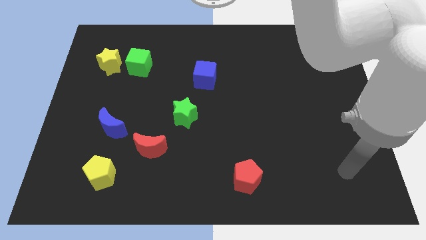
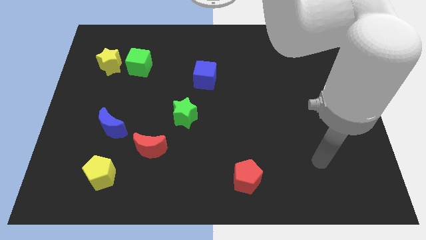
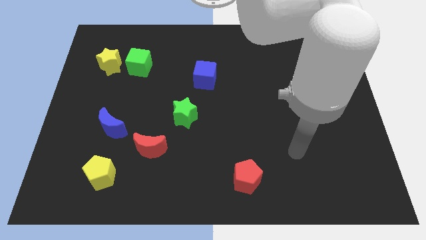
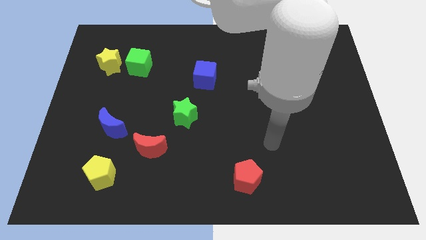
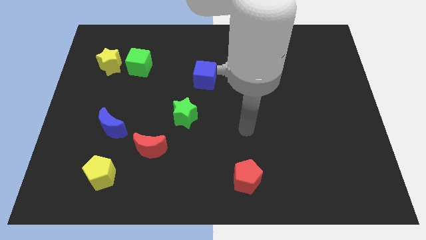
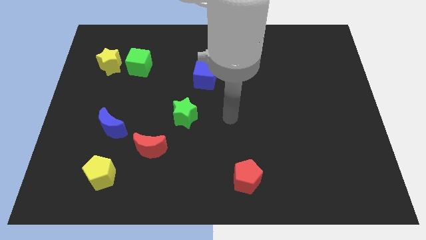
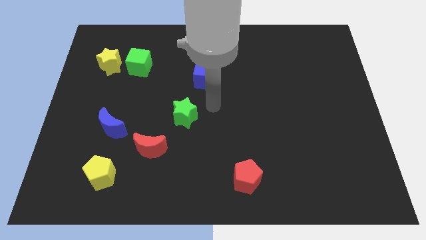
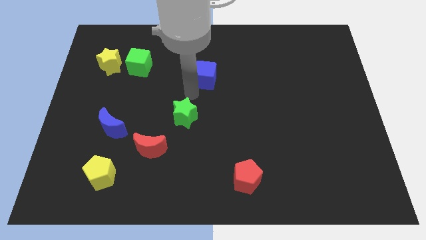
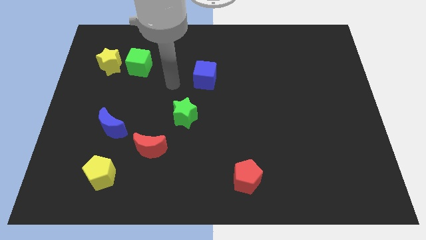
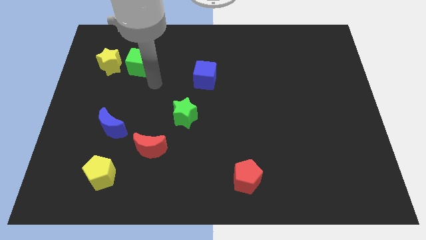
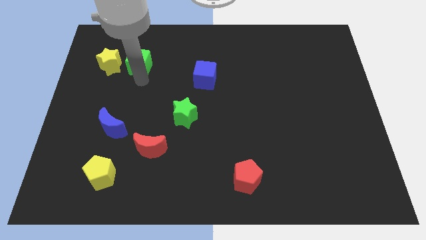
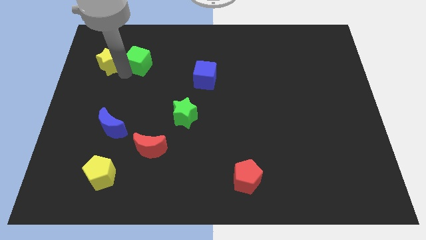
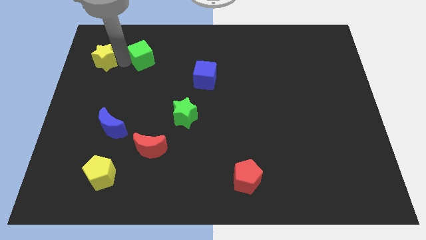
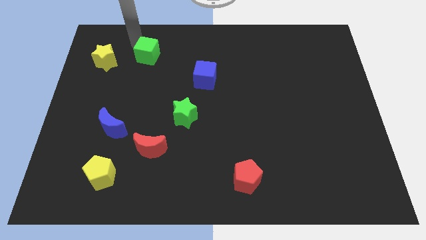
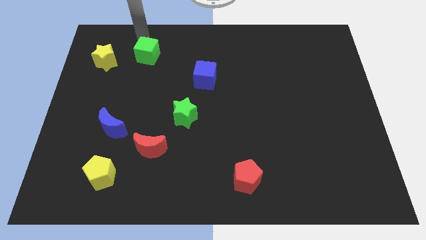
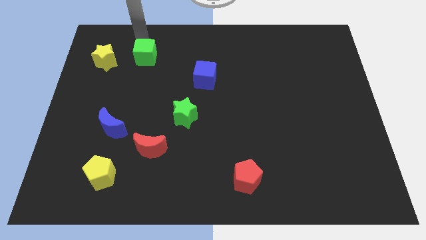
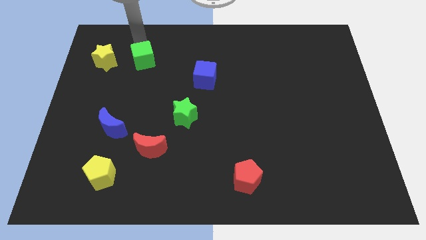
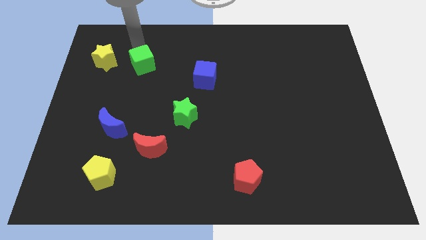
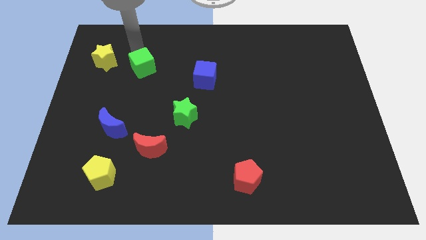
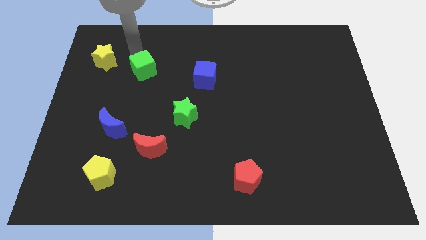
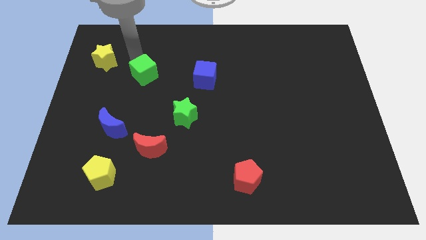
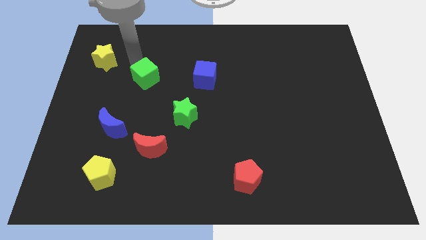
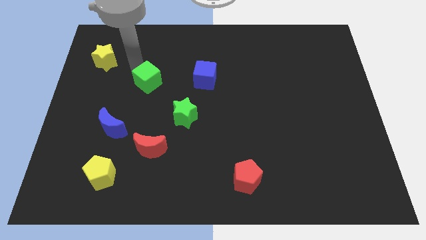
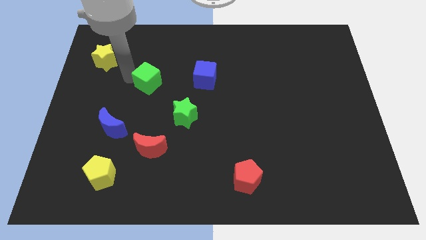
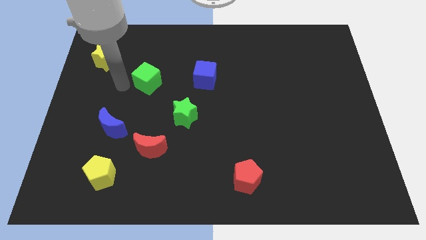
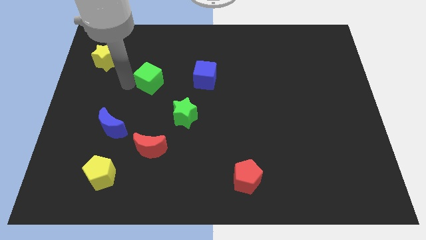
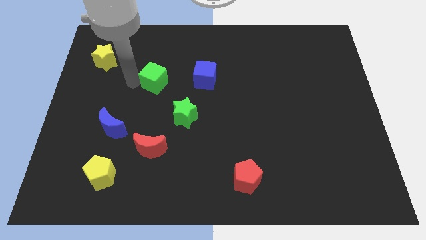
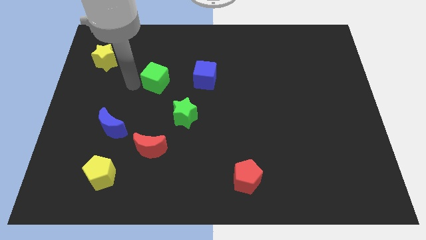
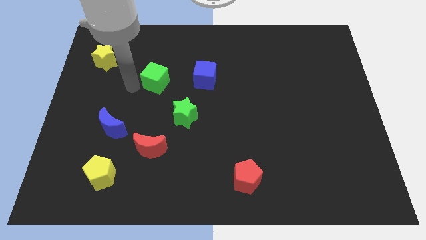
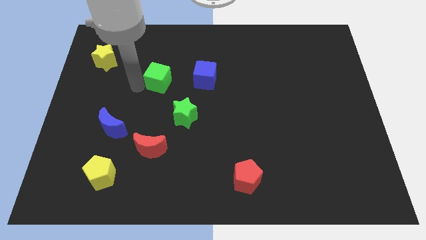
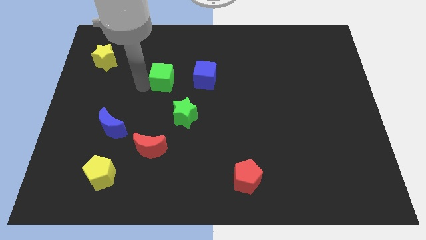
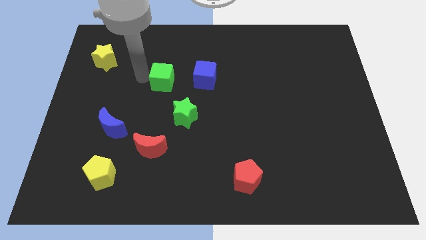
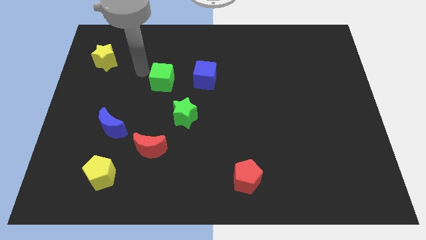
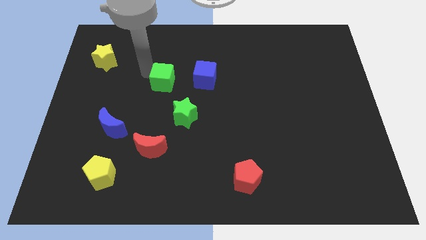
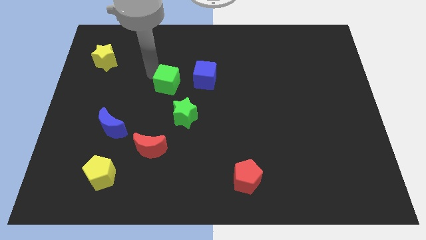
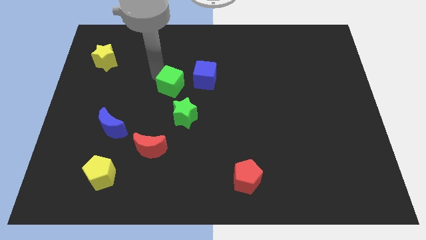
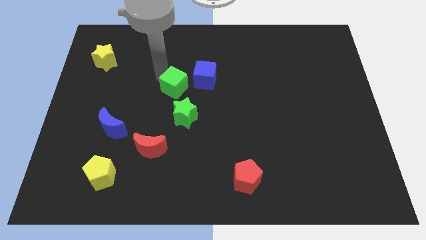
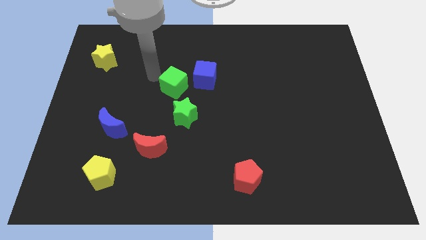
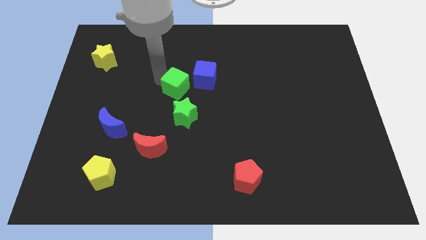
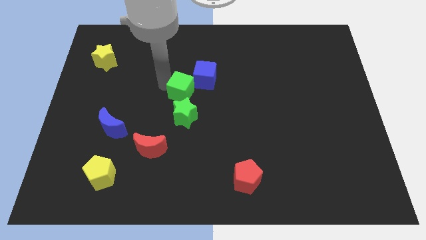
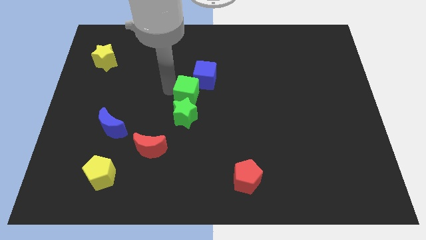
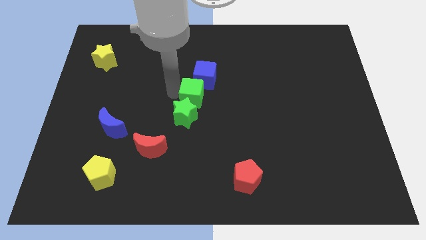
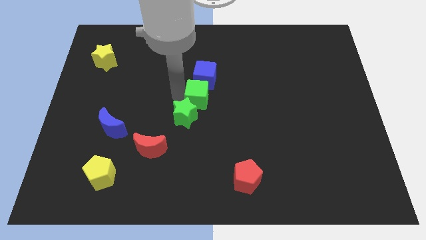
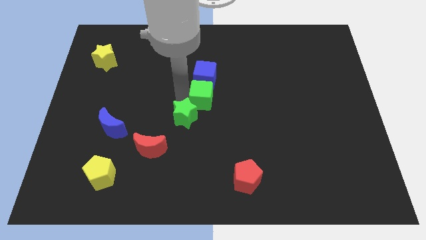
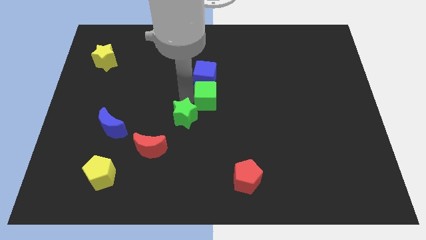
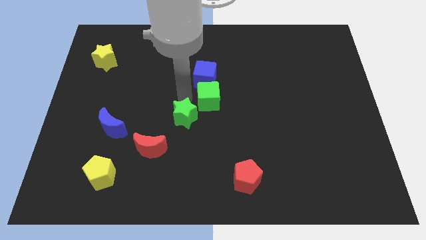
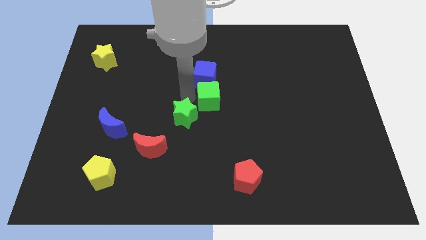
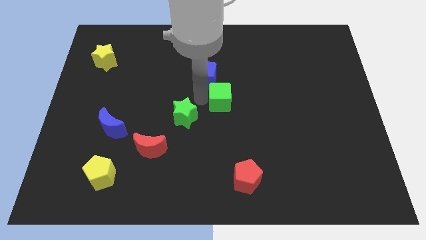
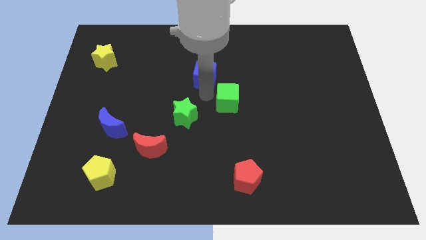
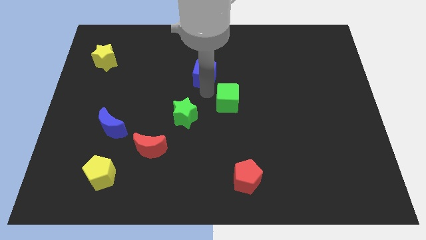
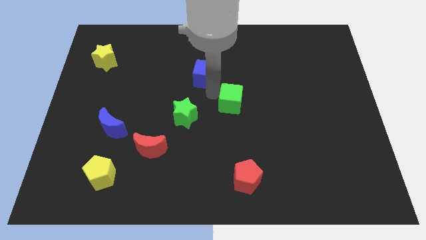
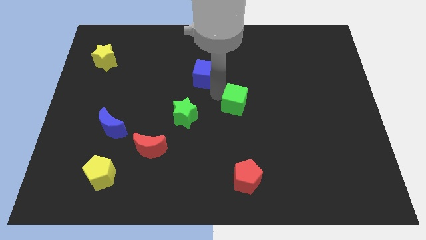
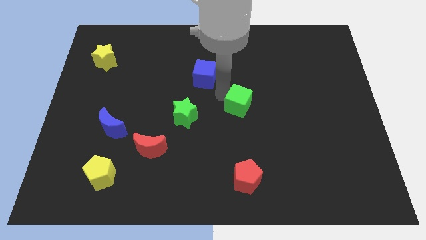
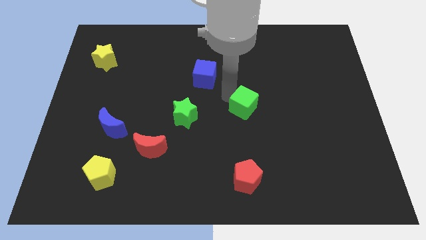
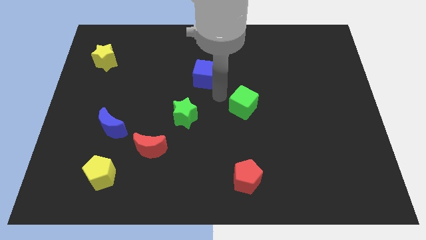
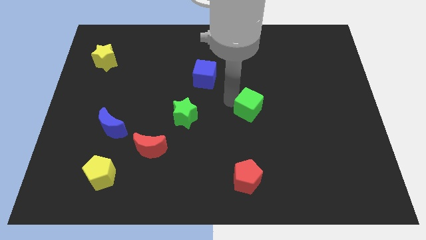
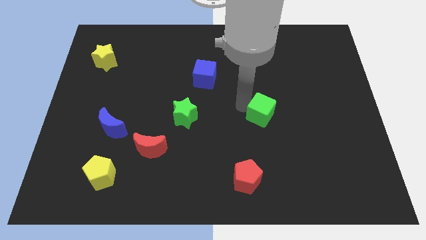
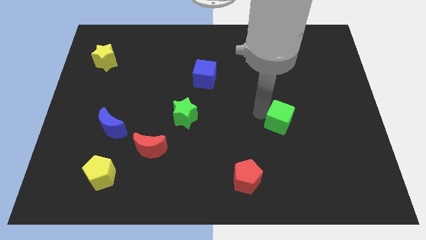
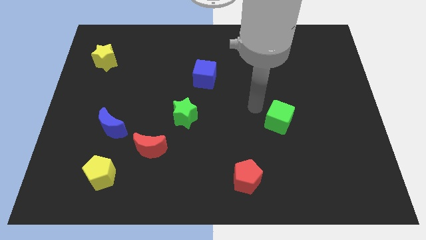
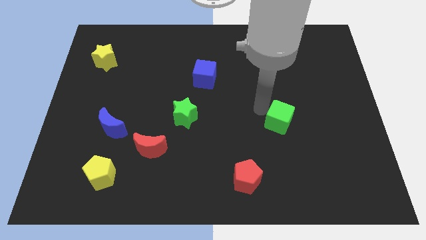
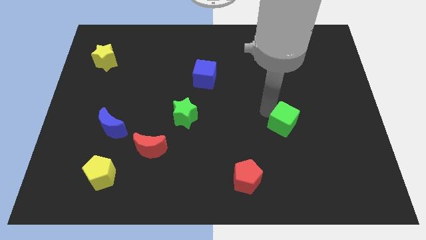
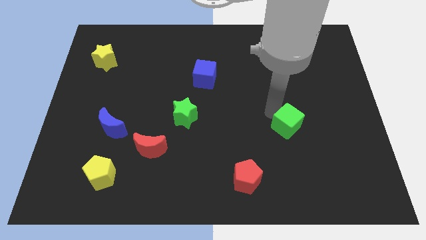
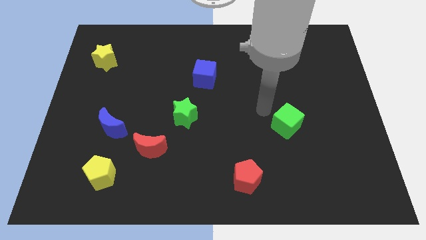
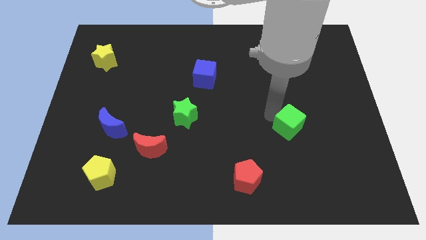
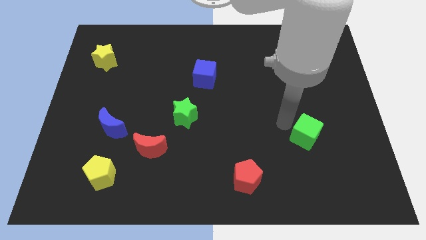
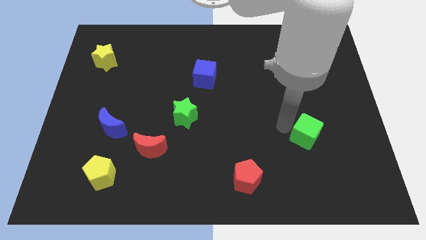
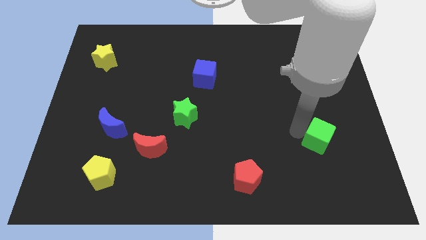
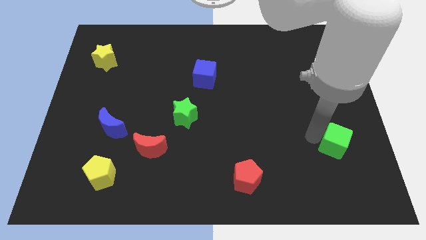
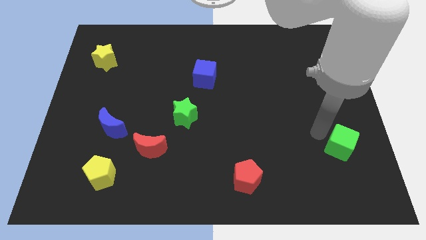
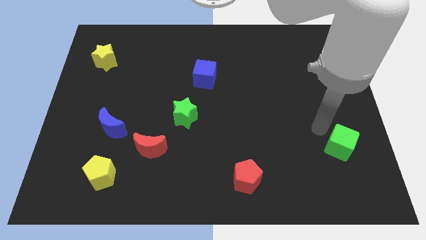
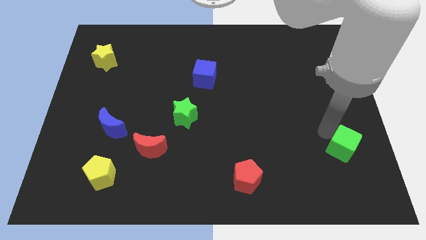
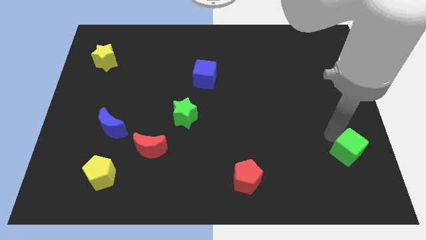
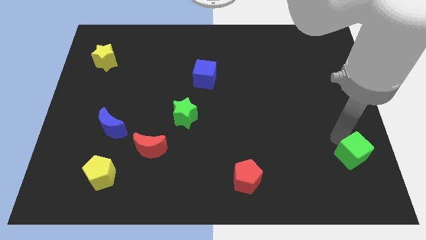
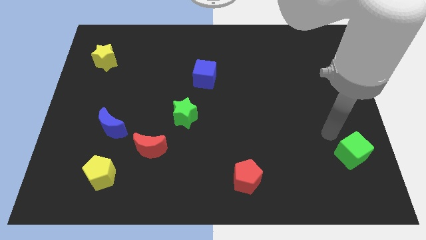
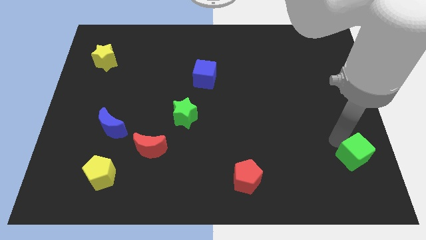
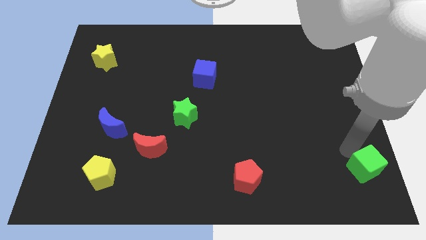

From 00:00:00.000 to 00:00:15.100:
slide the green cube to the lower right corner
